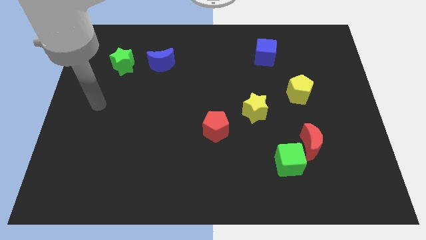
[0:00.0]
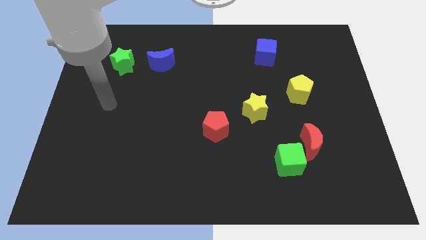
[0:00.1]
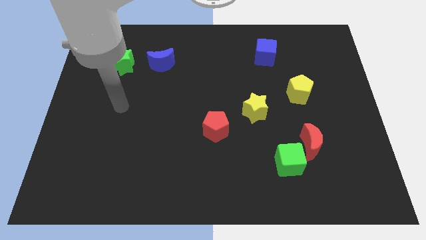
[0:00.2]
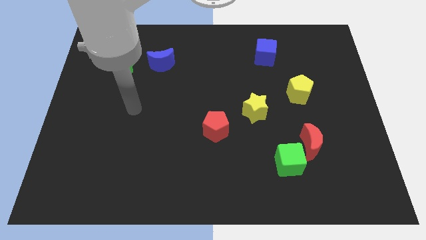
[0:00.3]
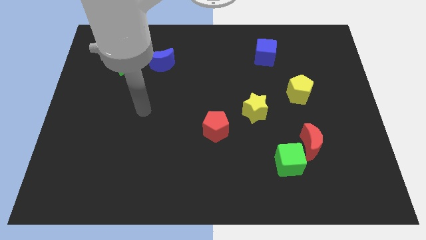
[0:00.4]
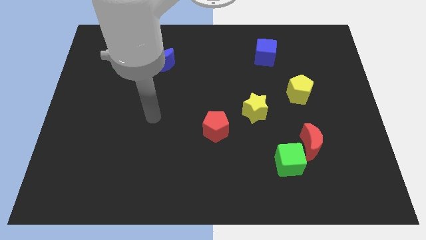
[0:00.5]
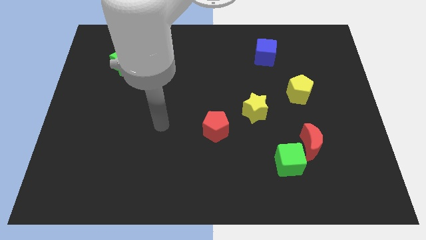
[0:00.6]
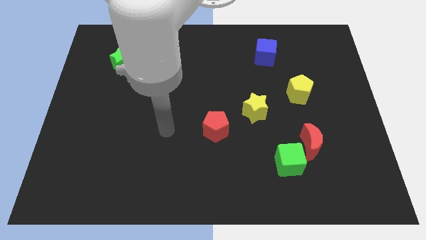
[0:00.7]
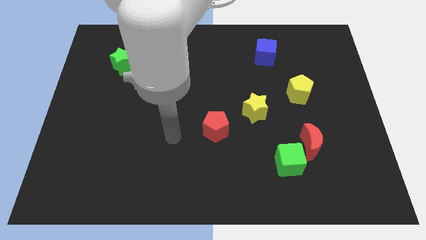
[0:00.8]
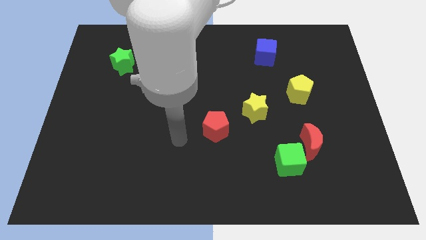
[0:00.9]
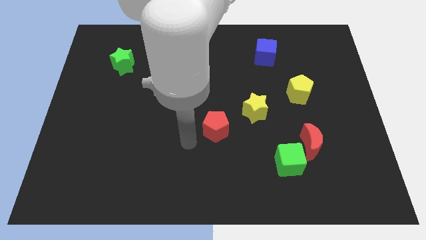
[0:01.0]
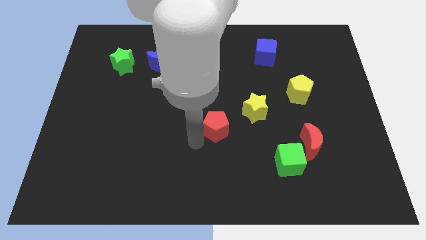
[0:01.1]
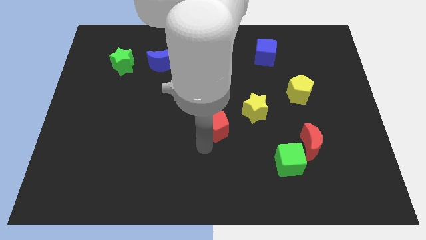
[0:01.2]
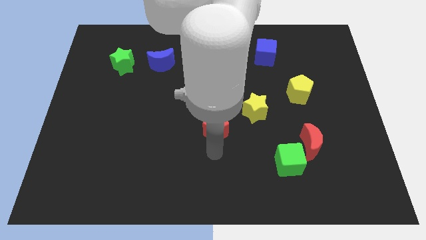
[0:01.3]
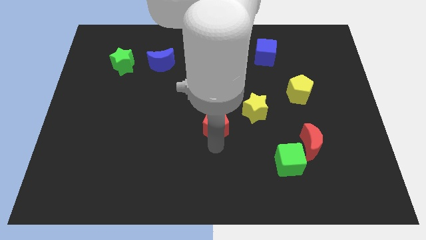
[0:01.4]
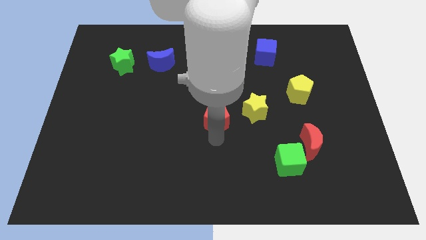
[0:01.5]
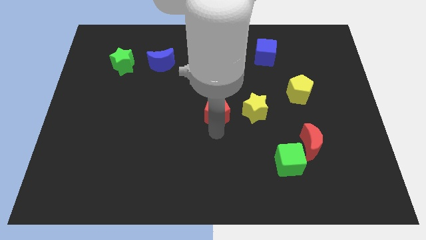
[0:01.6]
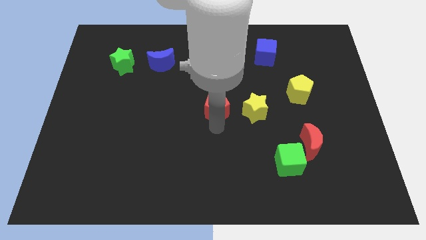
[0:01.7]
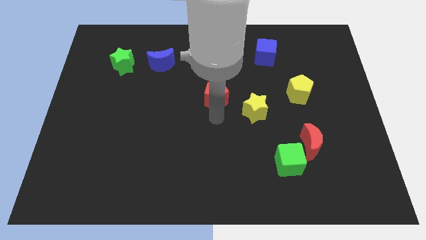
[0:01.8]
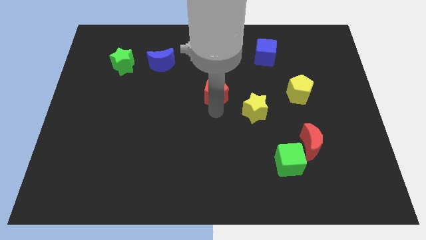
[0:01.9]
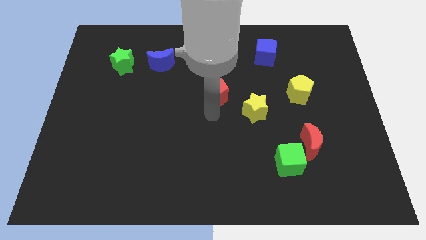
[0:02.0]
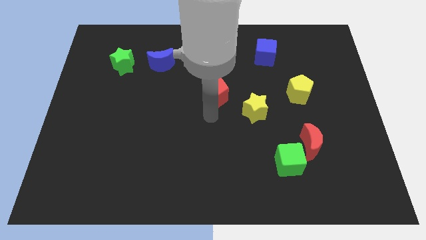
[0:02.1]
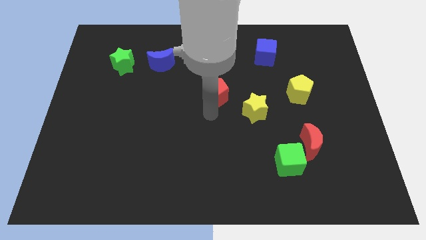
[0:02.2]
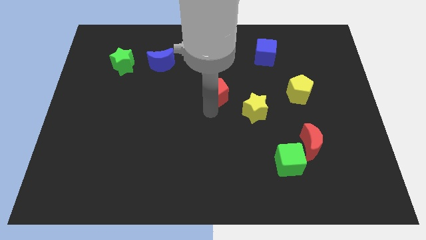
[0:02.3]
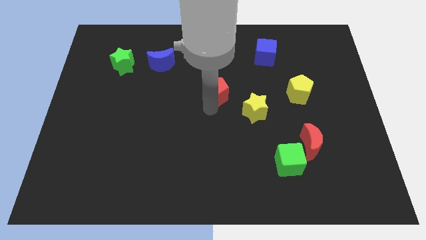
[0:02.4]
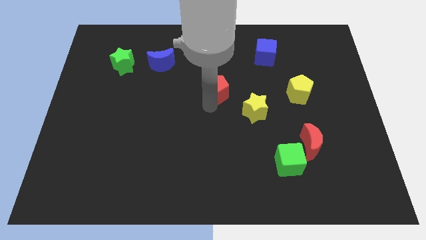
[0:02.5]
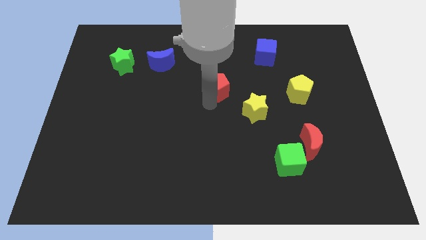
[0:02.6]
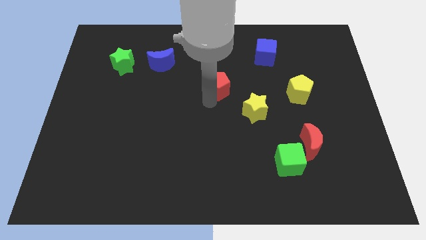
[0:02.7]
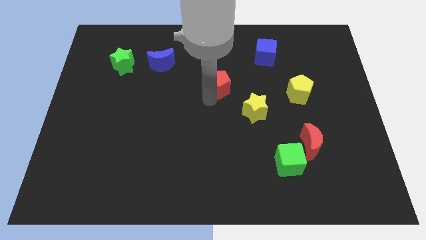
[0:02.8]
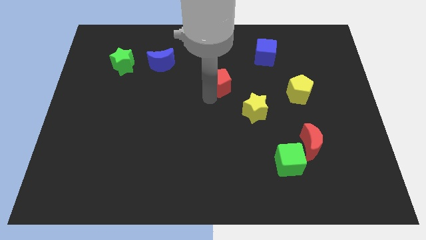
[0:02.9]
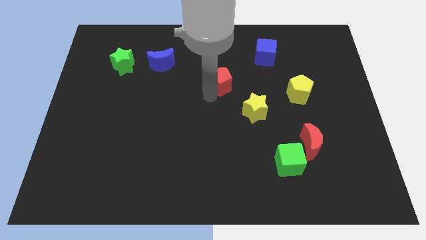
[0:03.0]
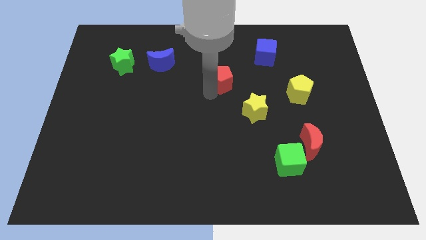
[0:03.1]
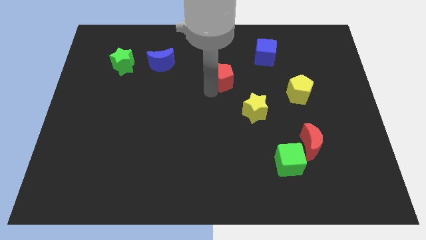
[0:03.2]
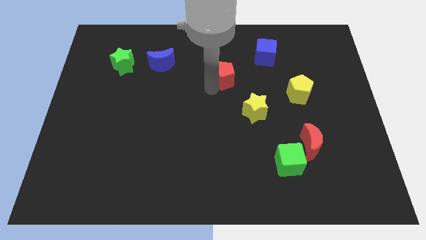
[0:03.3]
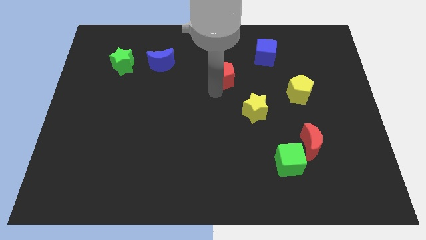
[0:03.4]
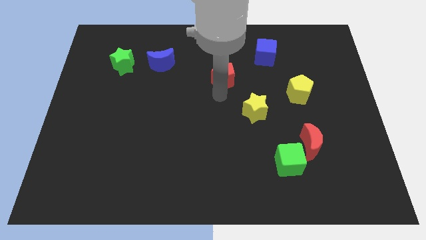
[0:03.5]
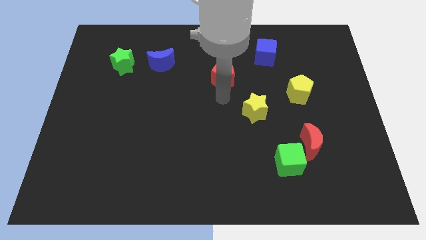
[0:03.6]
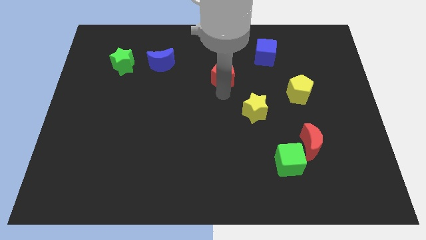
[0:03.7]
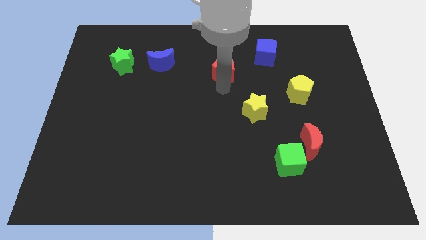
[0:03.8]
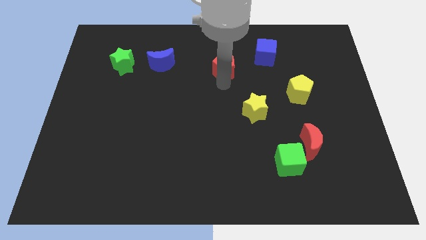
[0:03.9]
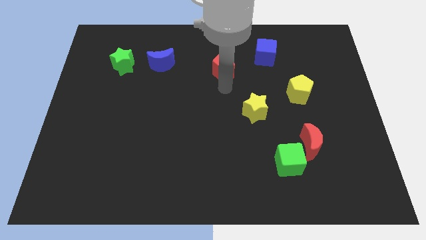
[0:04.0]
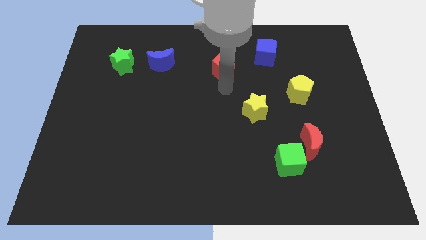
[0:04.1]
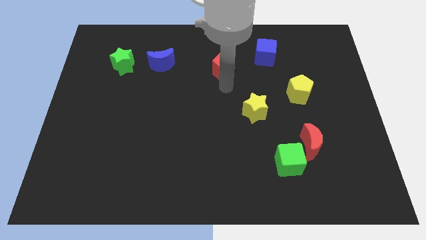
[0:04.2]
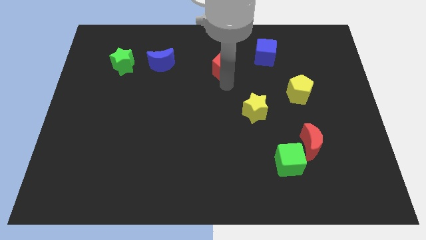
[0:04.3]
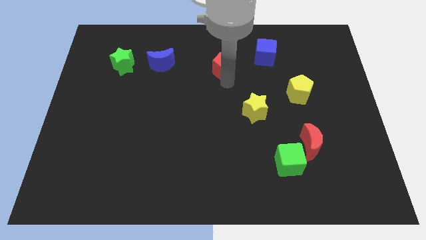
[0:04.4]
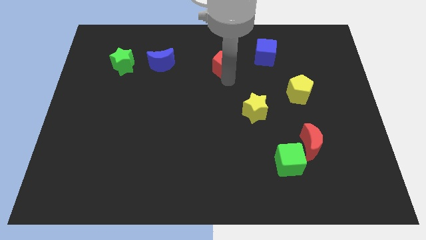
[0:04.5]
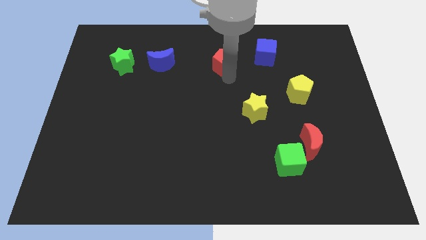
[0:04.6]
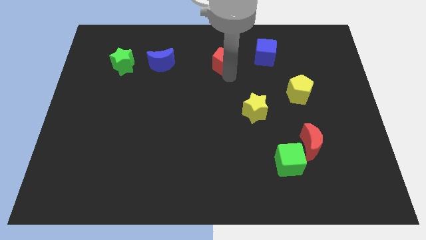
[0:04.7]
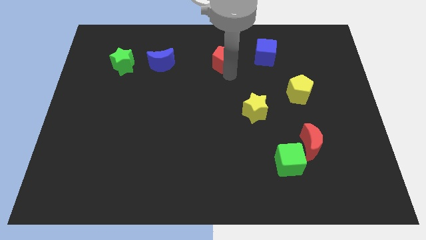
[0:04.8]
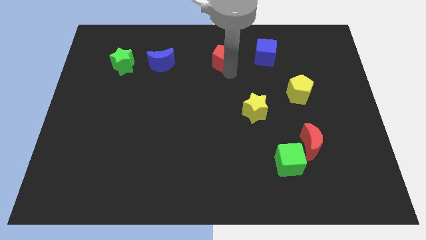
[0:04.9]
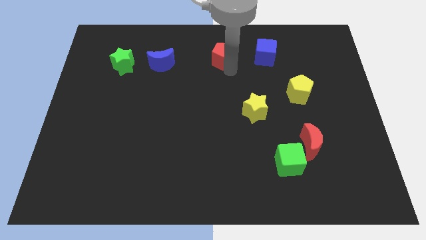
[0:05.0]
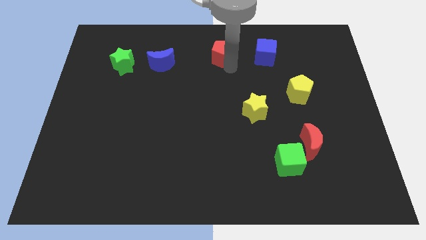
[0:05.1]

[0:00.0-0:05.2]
move the red pentagon to the top side

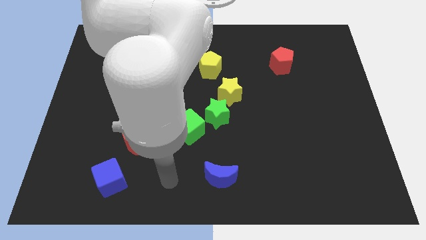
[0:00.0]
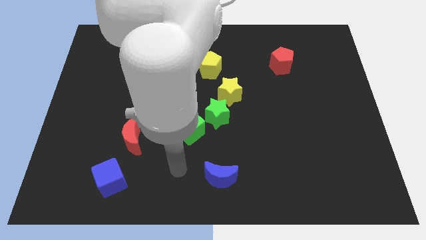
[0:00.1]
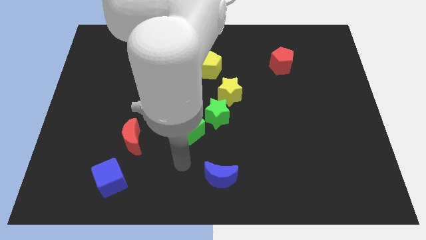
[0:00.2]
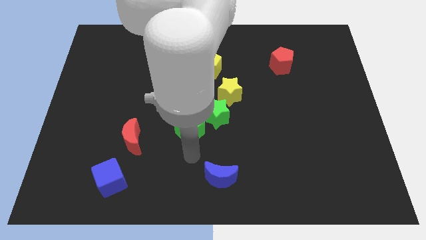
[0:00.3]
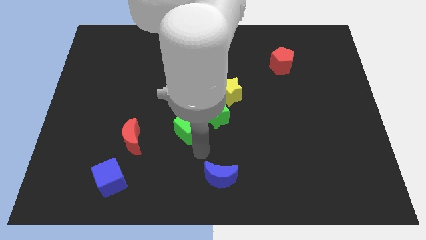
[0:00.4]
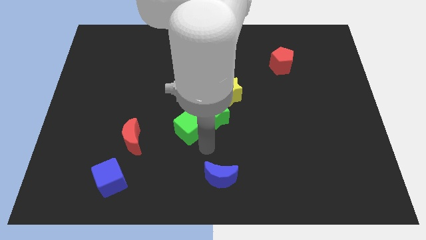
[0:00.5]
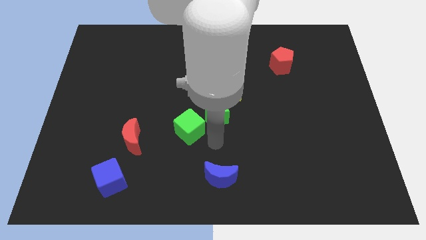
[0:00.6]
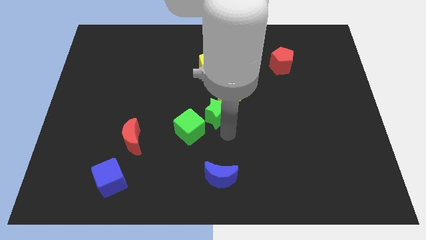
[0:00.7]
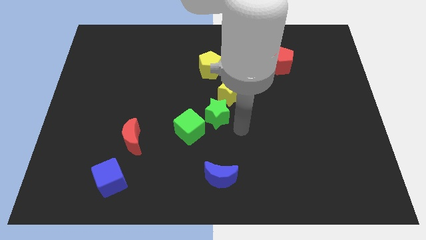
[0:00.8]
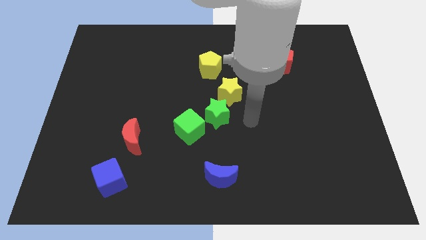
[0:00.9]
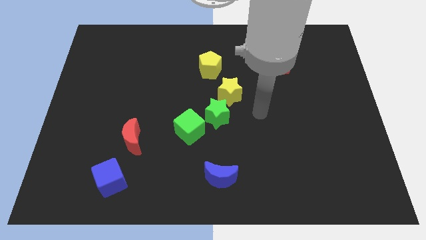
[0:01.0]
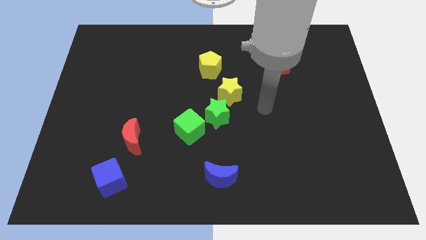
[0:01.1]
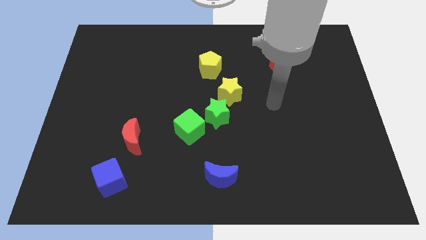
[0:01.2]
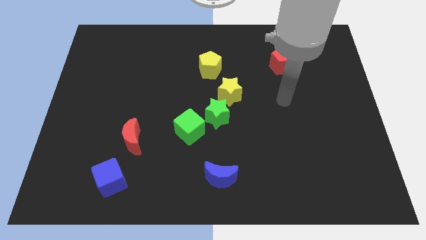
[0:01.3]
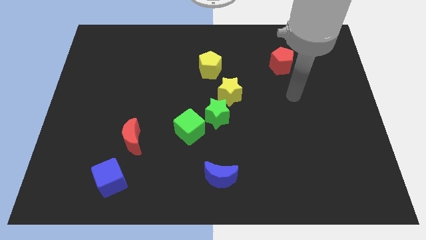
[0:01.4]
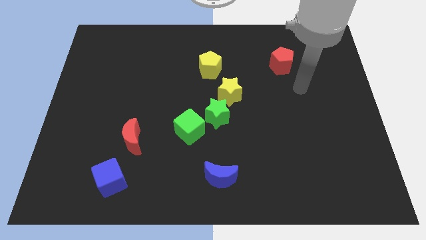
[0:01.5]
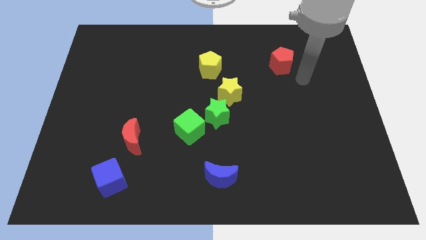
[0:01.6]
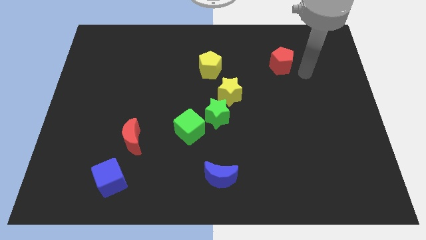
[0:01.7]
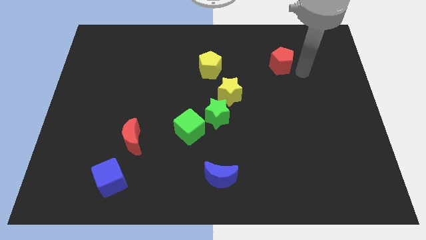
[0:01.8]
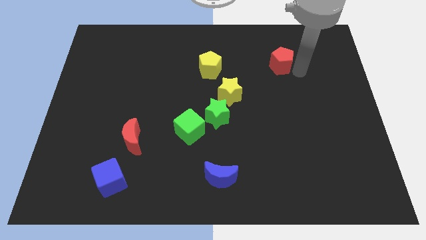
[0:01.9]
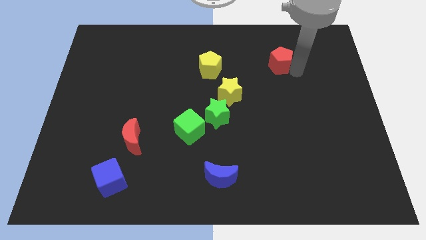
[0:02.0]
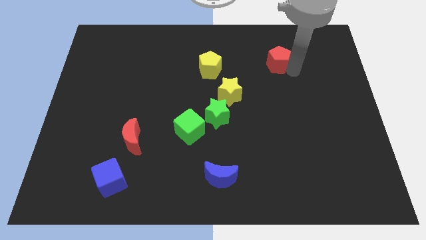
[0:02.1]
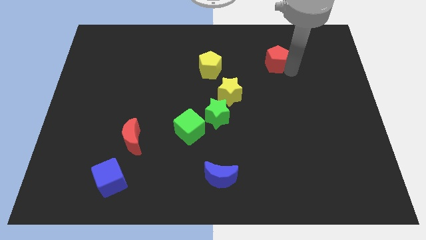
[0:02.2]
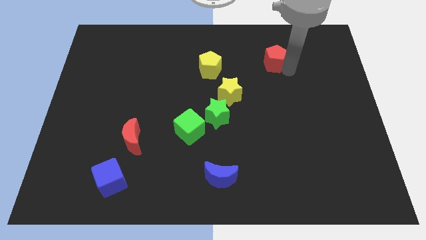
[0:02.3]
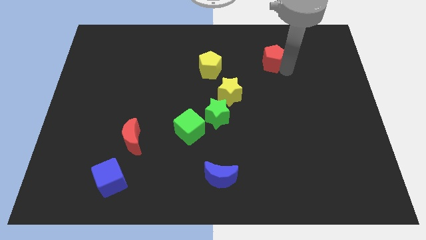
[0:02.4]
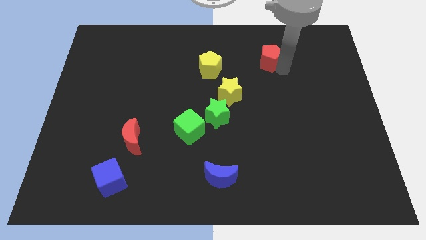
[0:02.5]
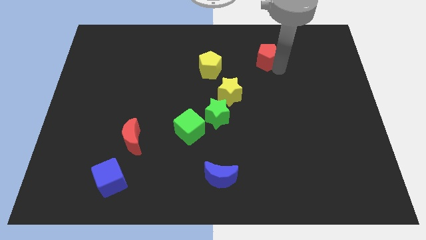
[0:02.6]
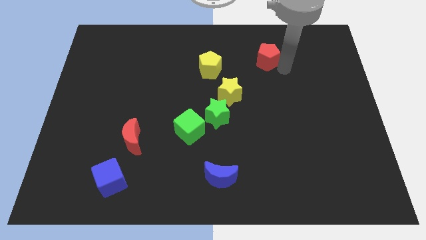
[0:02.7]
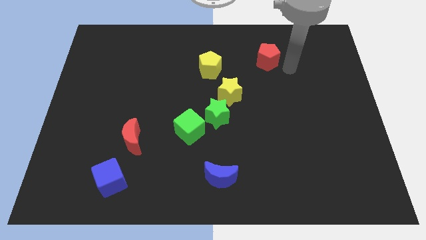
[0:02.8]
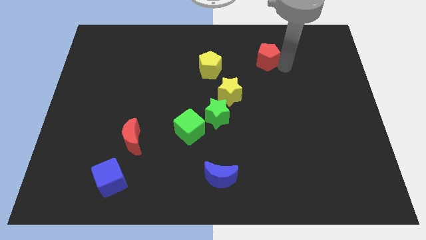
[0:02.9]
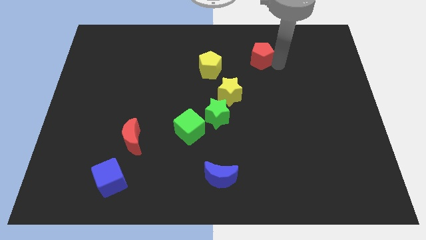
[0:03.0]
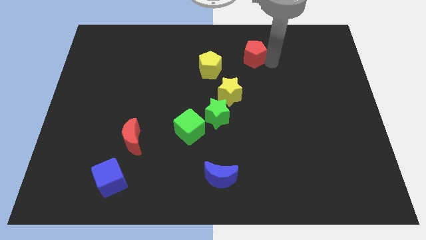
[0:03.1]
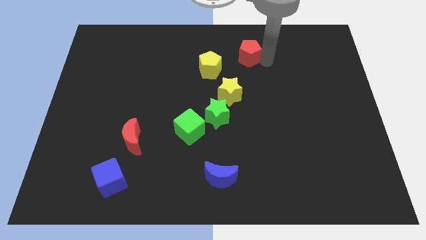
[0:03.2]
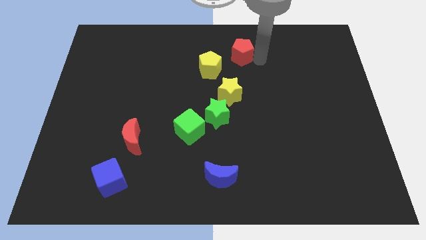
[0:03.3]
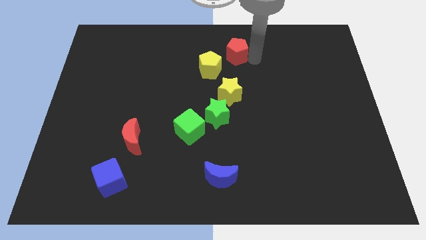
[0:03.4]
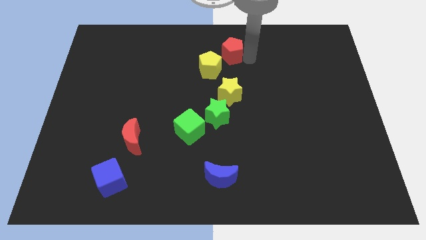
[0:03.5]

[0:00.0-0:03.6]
put the red pentagon to the towards your base
